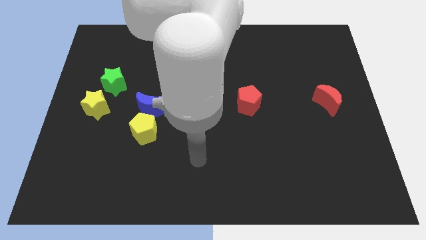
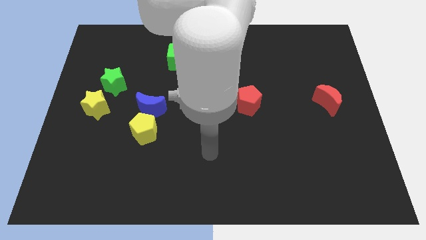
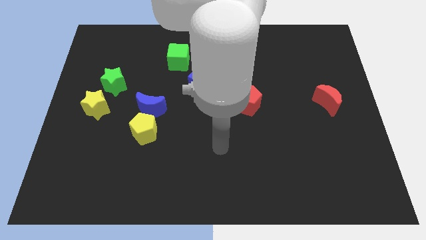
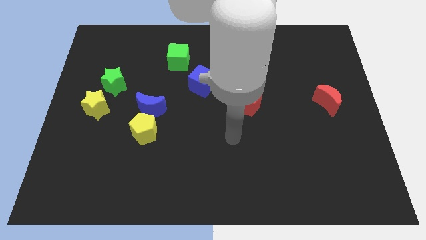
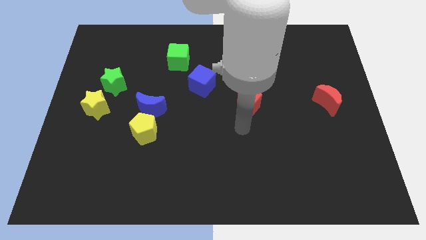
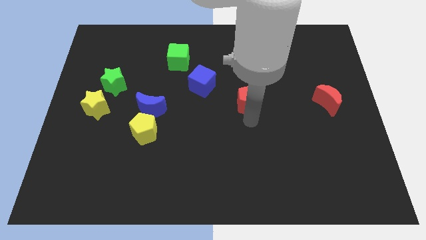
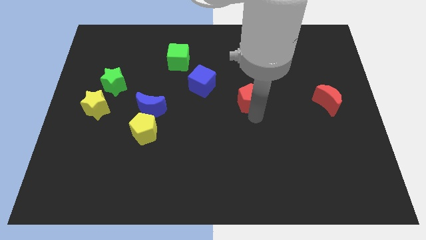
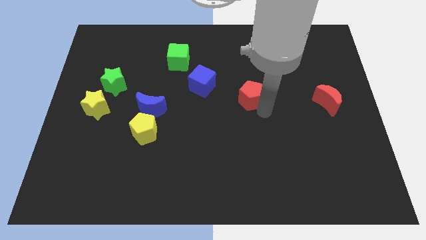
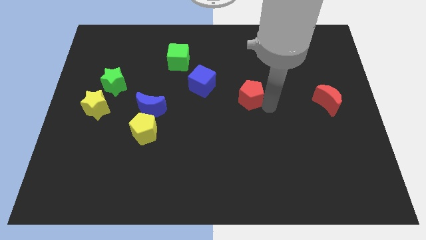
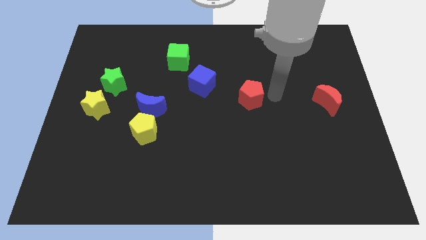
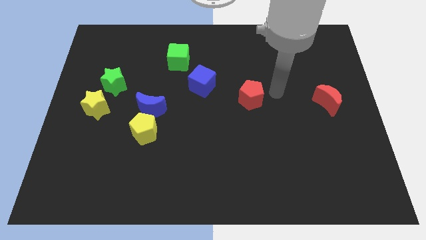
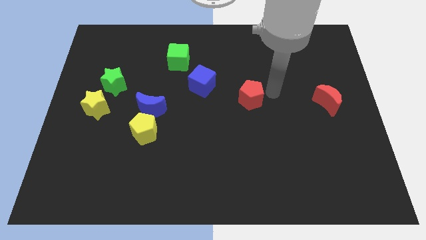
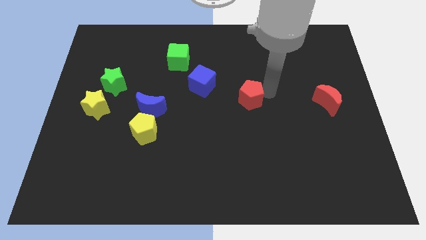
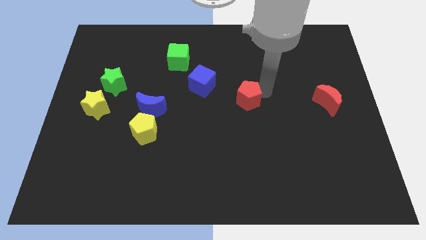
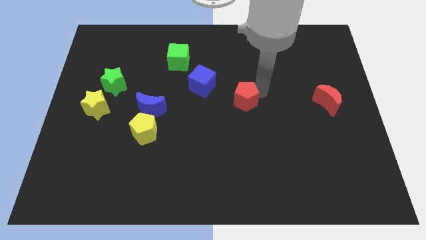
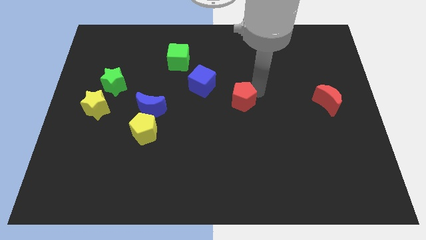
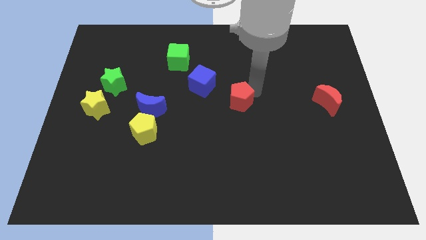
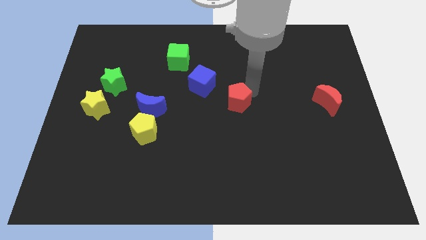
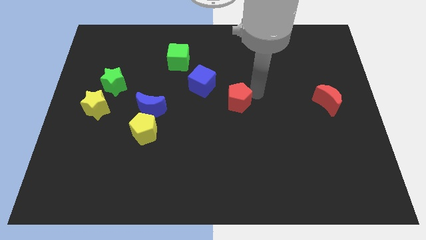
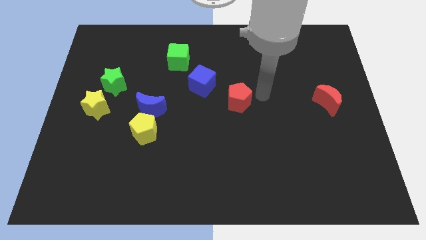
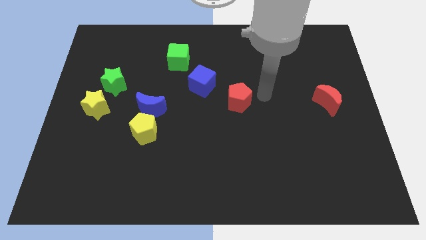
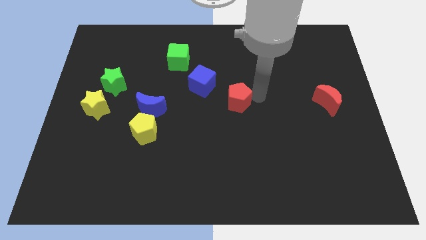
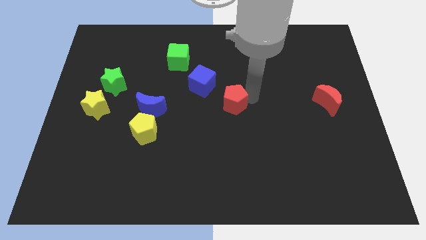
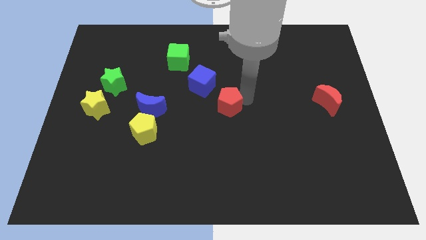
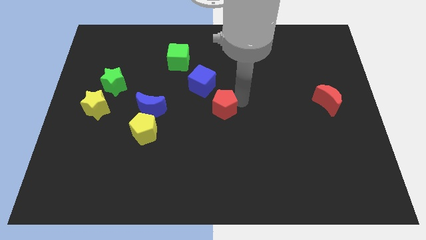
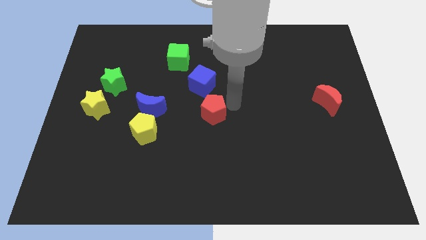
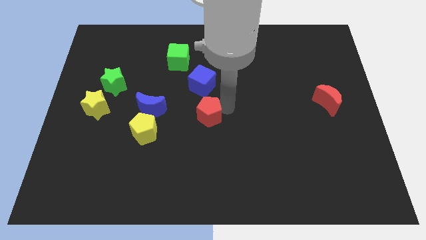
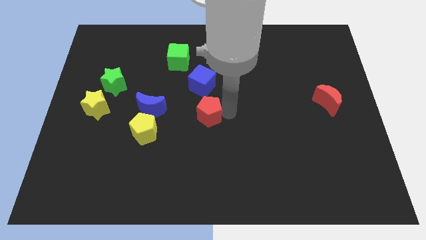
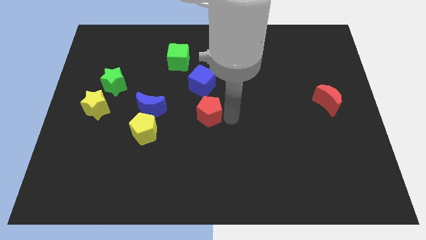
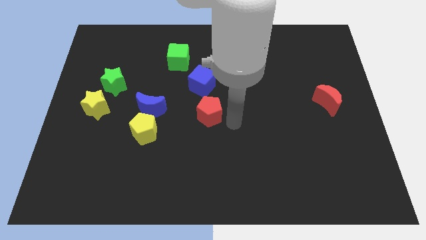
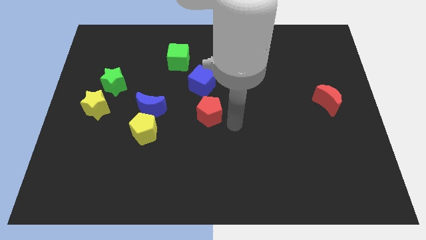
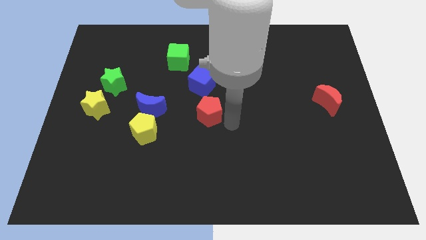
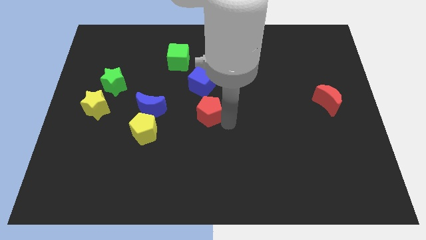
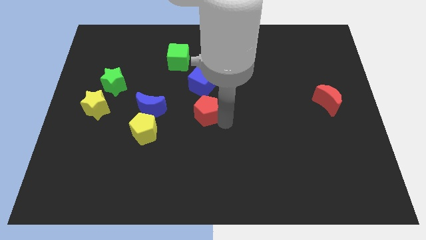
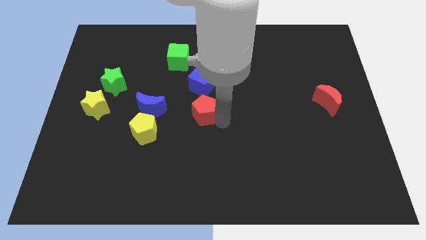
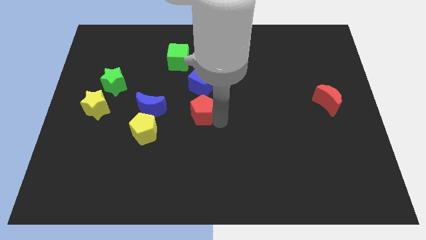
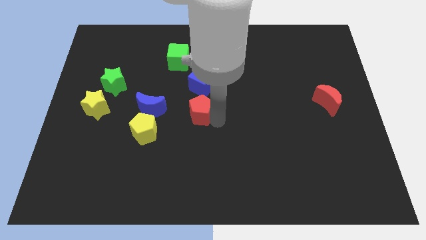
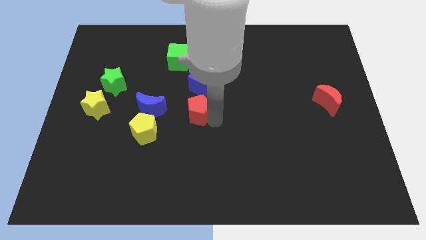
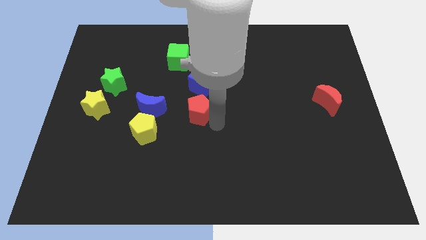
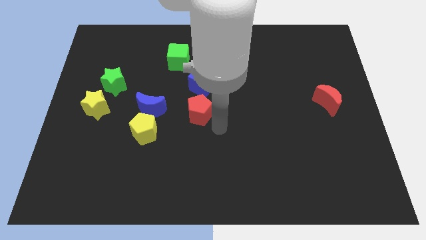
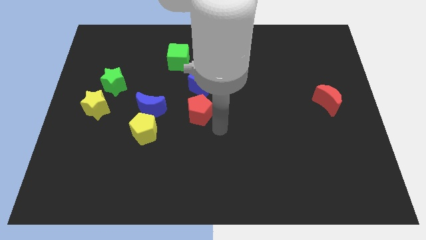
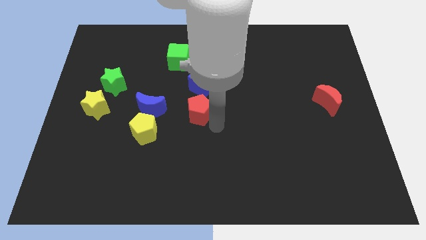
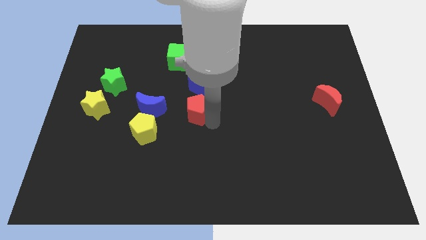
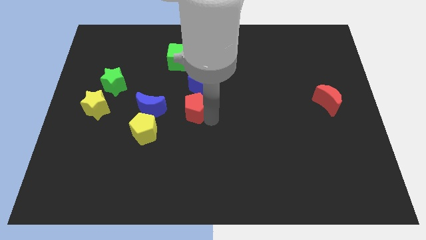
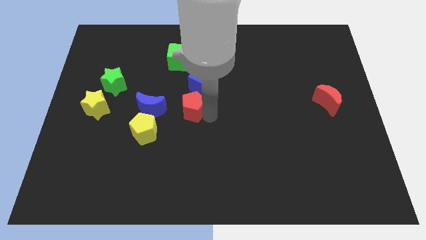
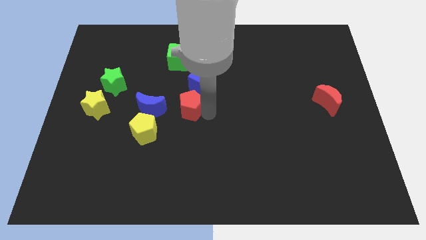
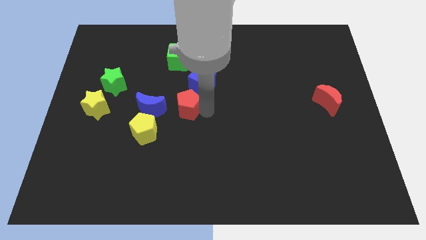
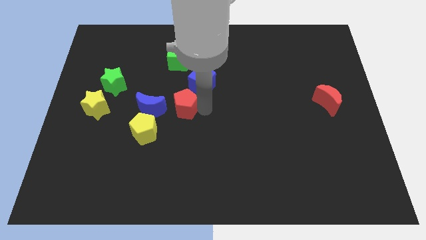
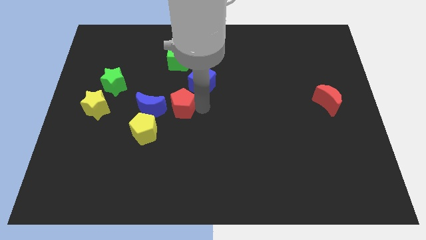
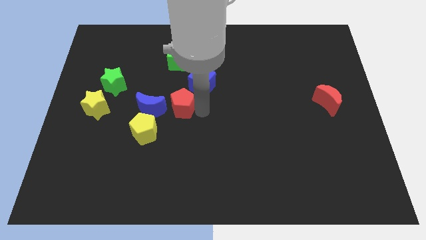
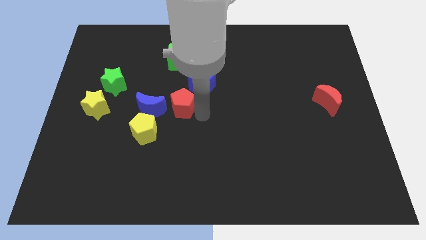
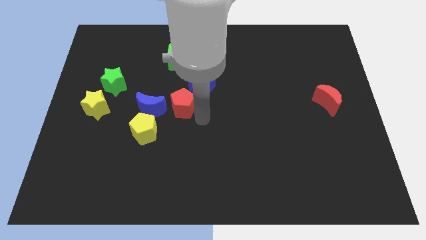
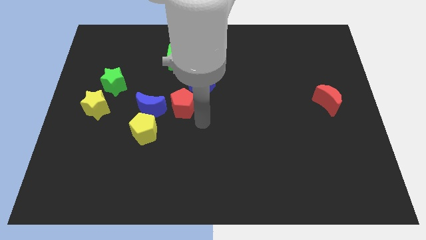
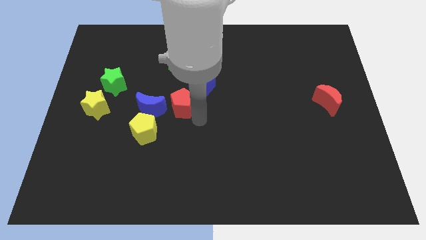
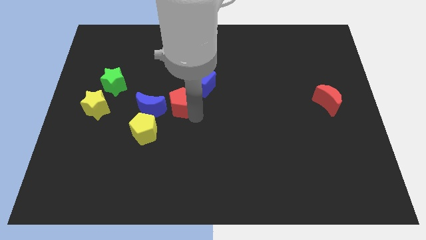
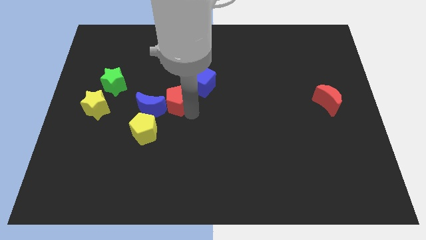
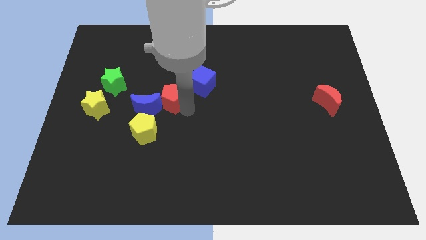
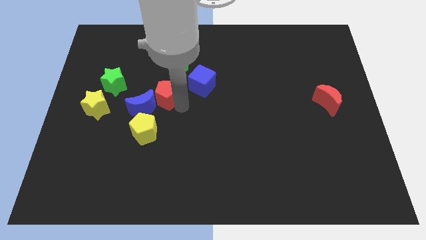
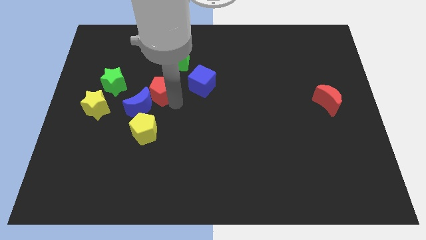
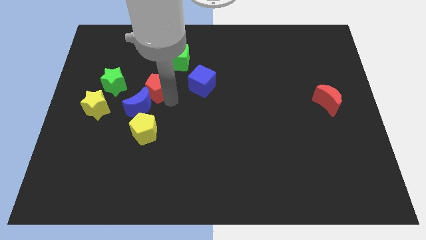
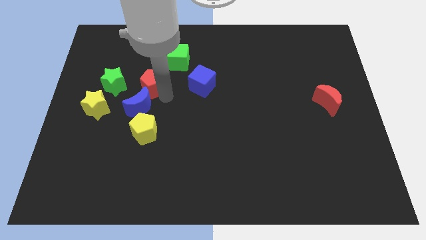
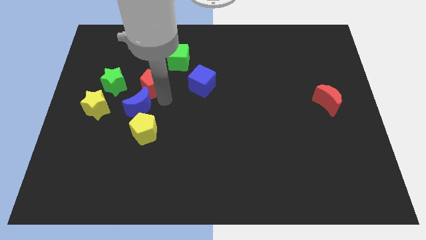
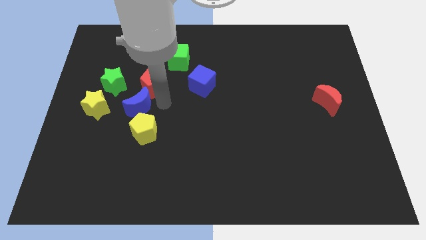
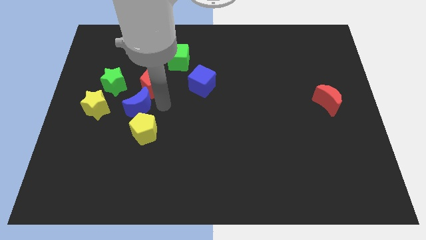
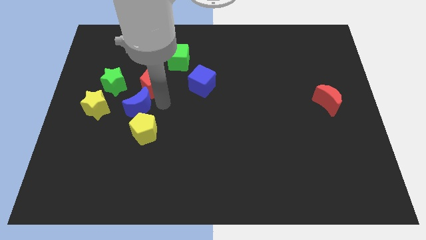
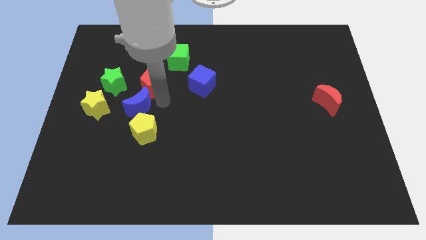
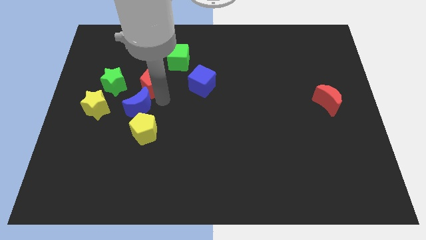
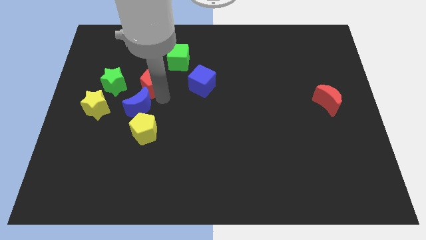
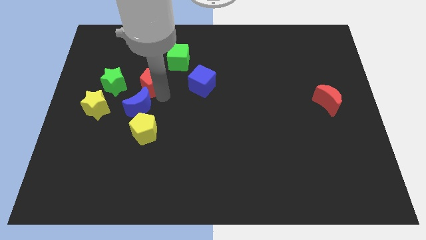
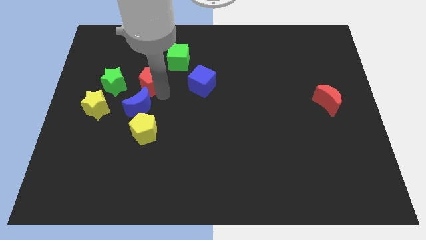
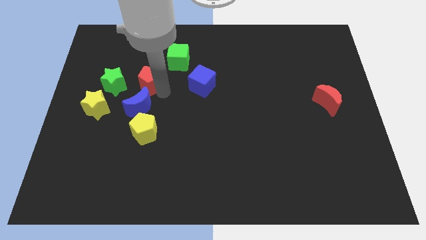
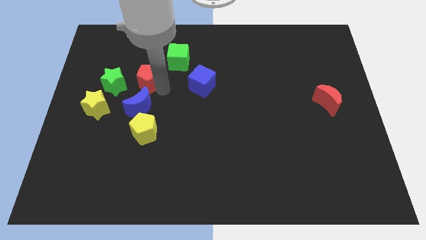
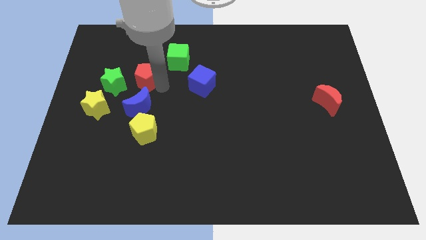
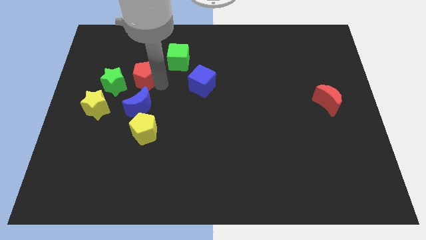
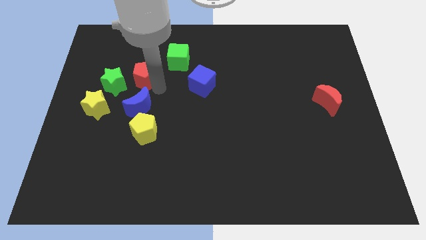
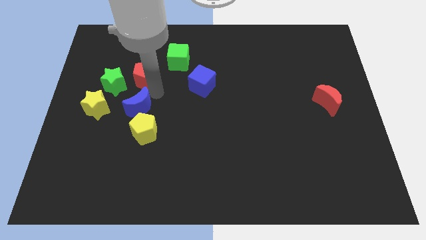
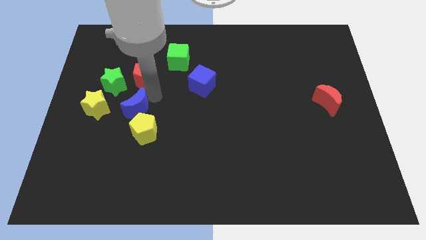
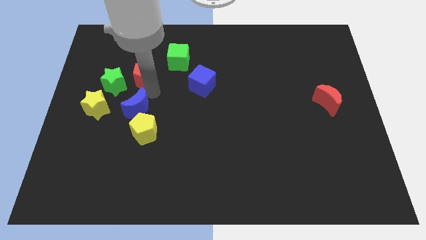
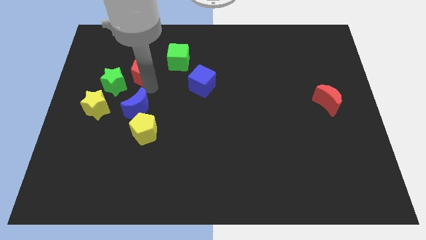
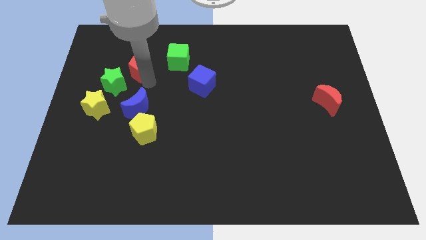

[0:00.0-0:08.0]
push the red pentagon to the left of the green cube
